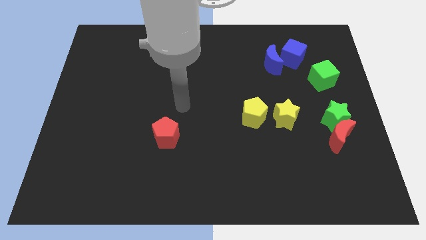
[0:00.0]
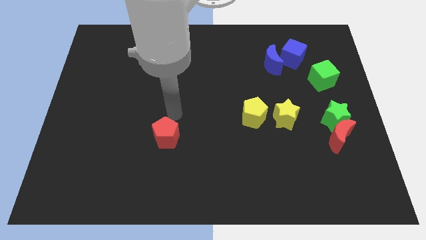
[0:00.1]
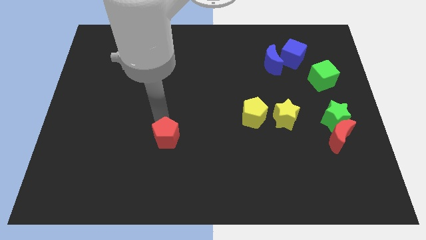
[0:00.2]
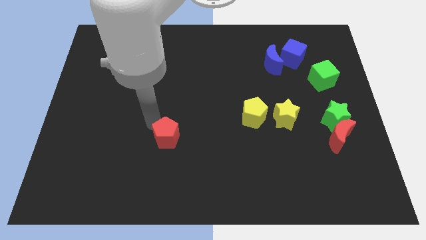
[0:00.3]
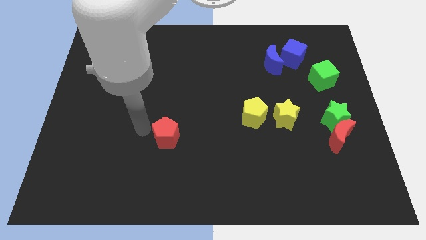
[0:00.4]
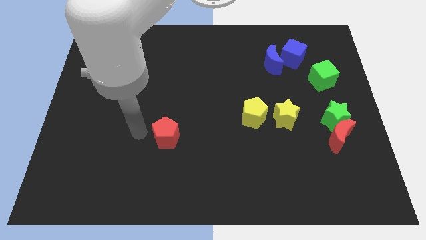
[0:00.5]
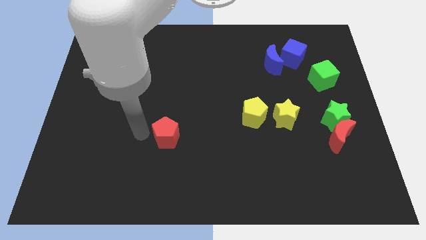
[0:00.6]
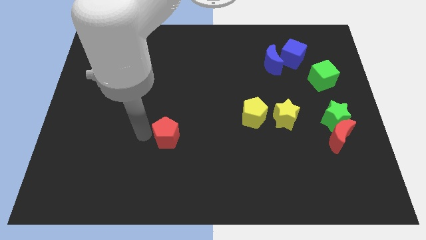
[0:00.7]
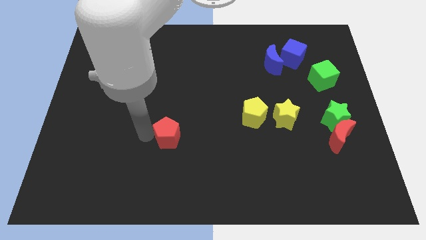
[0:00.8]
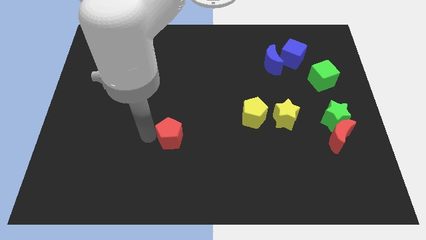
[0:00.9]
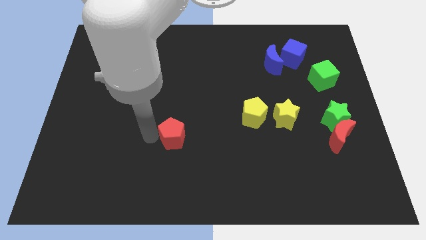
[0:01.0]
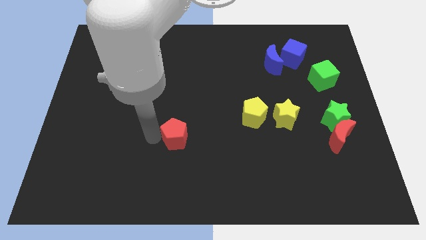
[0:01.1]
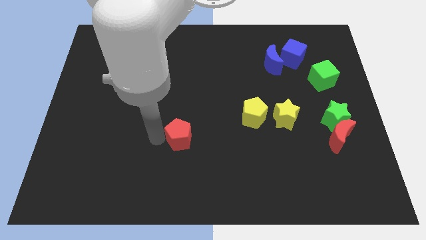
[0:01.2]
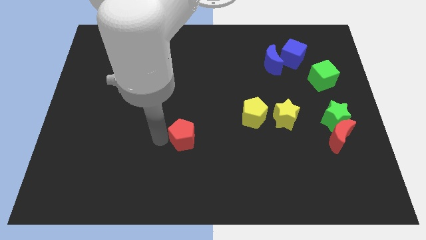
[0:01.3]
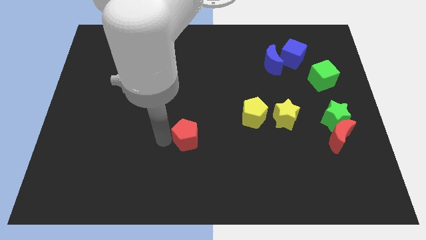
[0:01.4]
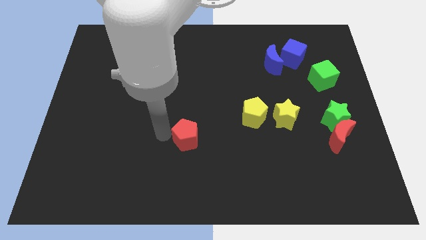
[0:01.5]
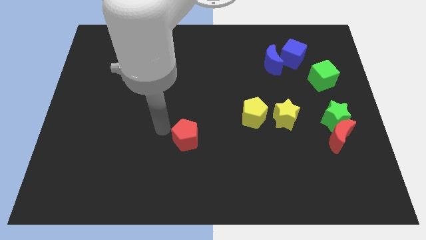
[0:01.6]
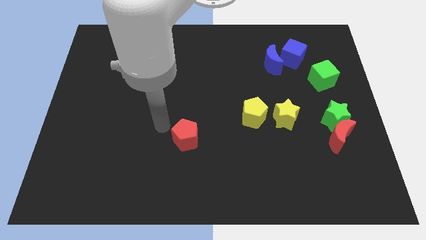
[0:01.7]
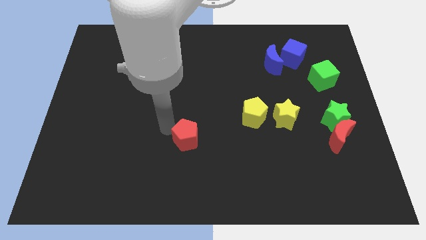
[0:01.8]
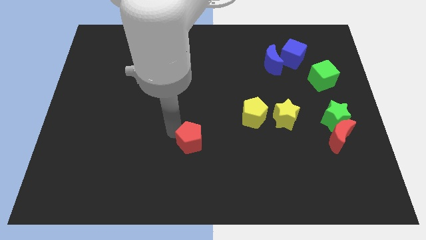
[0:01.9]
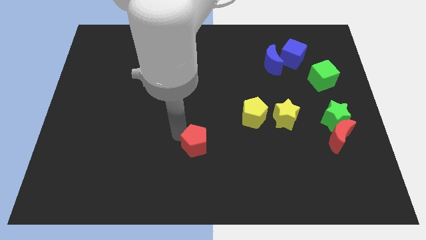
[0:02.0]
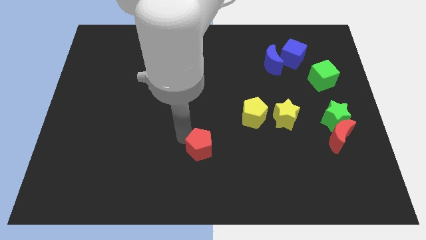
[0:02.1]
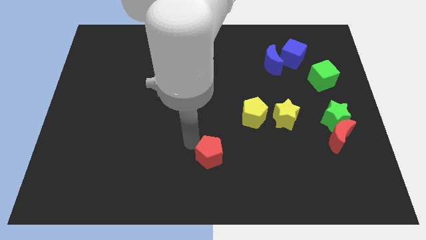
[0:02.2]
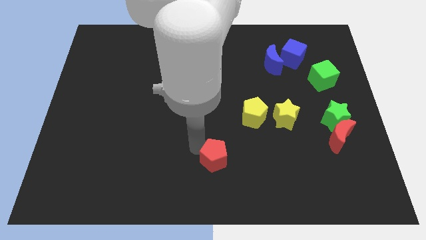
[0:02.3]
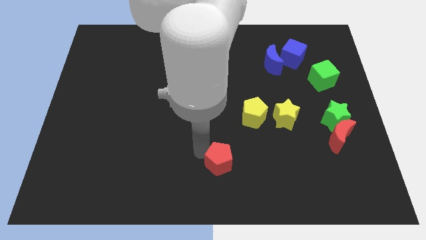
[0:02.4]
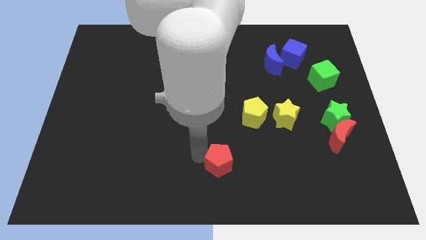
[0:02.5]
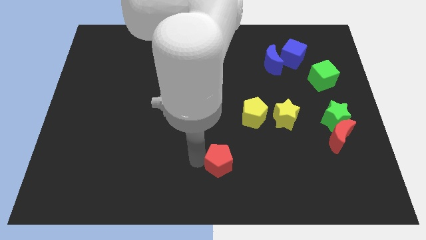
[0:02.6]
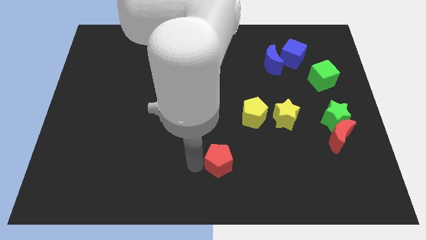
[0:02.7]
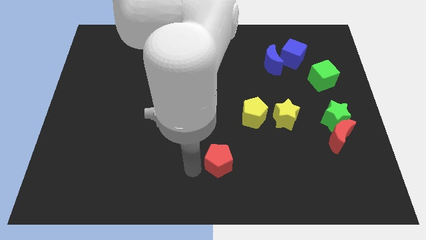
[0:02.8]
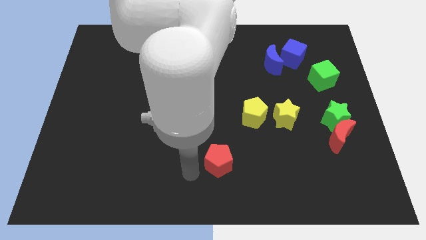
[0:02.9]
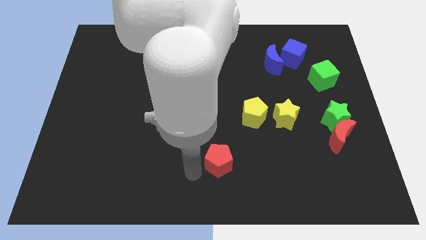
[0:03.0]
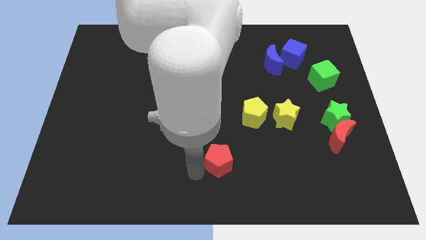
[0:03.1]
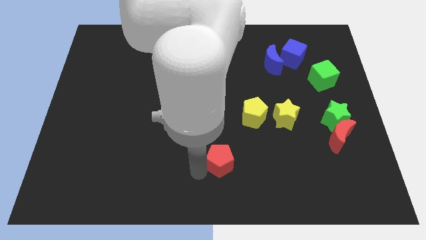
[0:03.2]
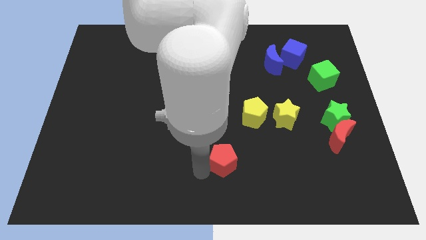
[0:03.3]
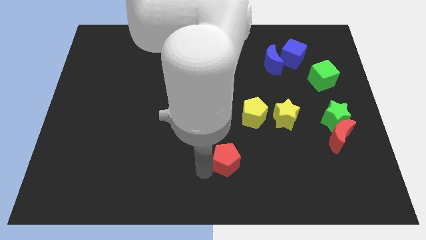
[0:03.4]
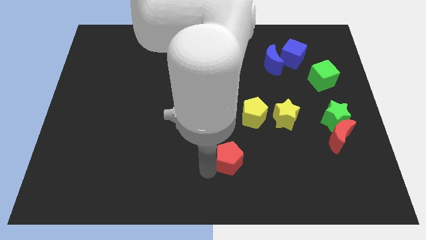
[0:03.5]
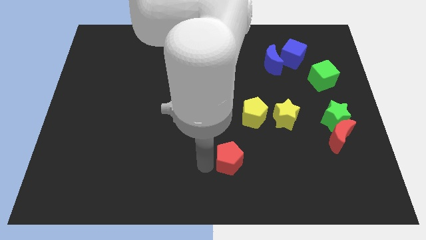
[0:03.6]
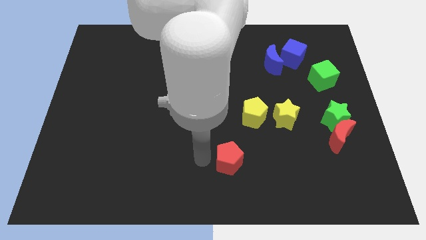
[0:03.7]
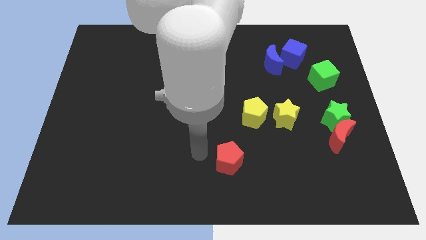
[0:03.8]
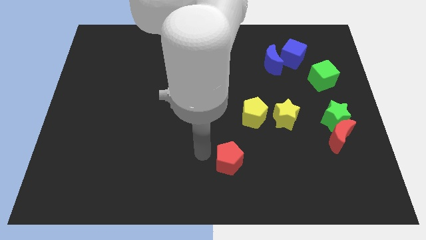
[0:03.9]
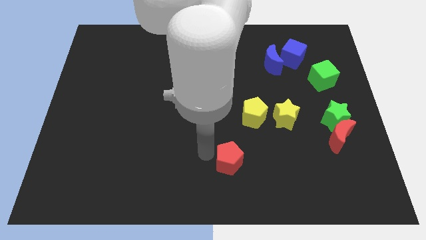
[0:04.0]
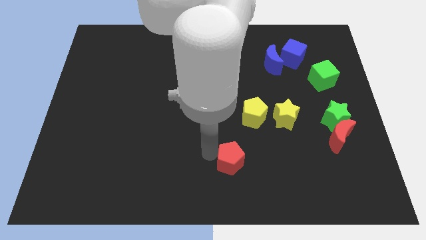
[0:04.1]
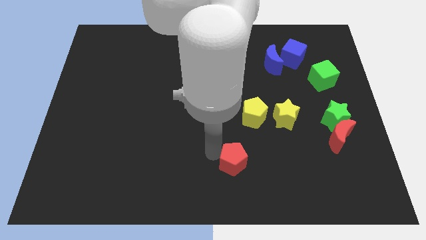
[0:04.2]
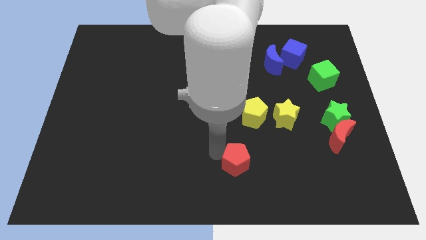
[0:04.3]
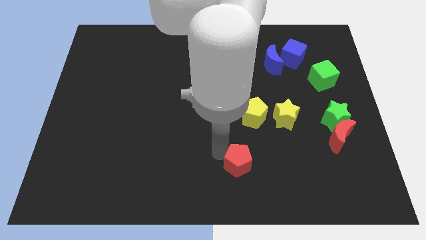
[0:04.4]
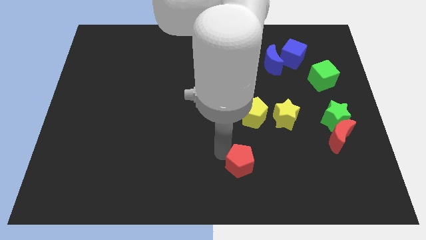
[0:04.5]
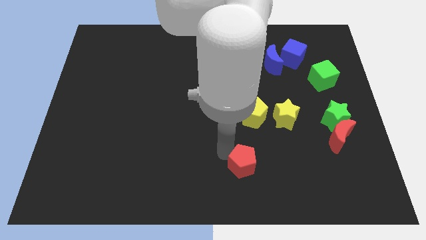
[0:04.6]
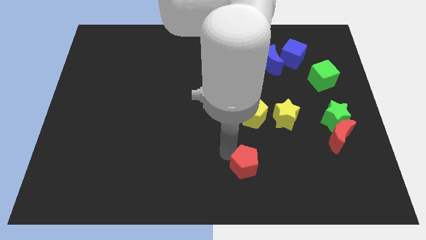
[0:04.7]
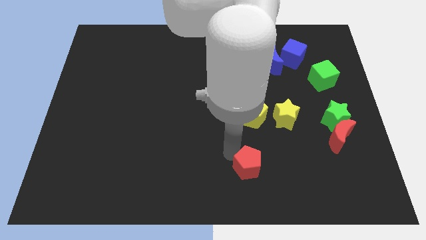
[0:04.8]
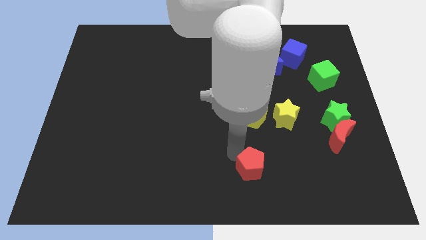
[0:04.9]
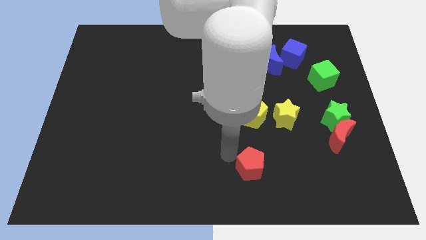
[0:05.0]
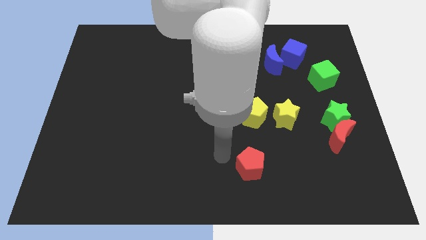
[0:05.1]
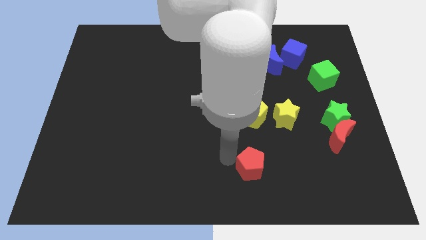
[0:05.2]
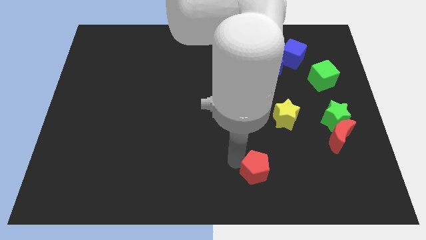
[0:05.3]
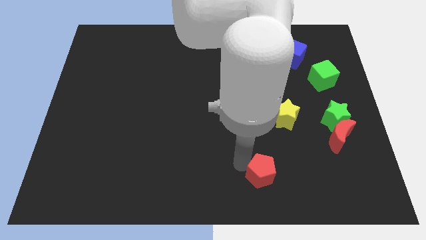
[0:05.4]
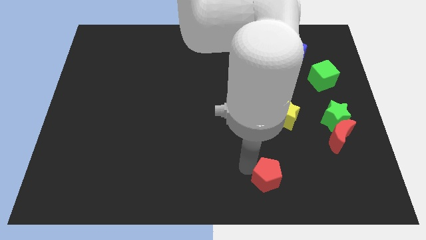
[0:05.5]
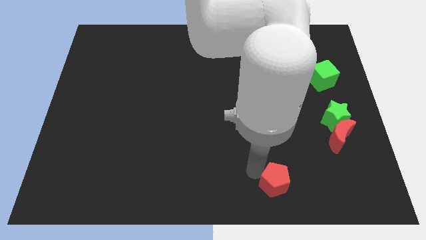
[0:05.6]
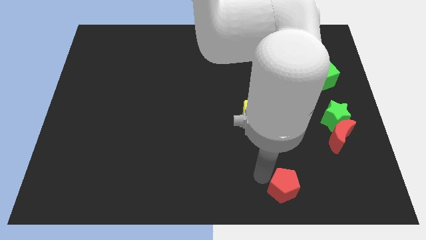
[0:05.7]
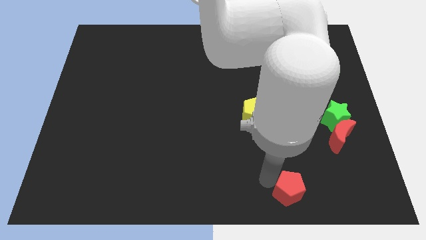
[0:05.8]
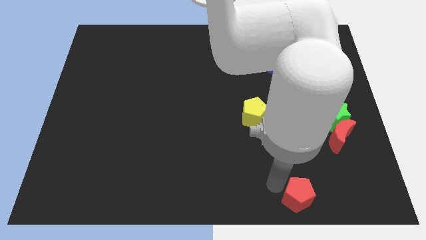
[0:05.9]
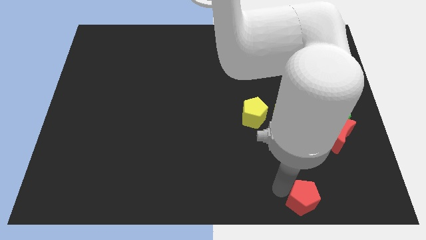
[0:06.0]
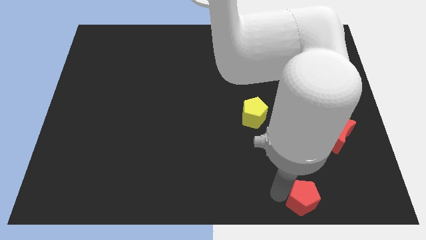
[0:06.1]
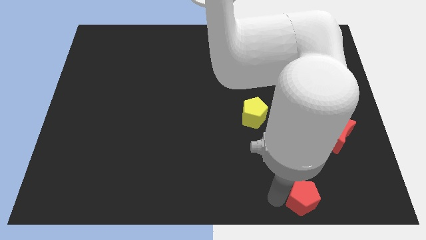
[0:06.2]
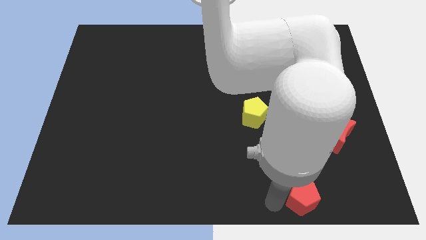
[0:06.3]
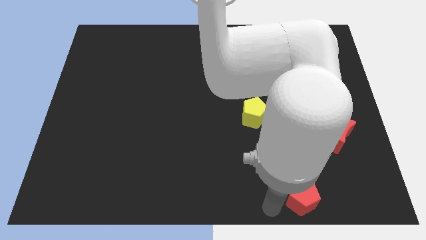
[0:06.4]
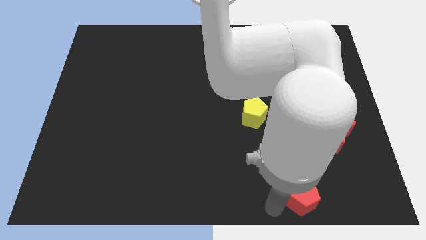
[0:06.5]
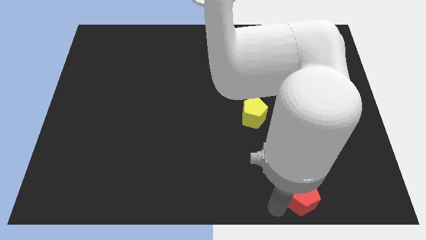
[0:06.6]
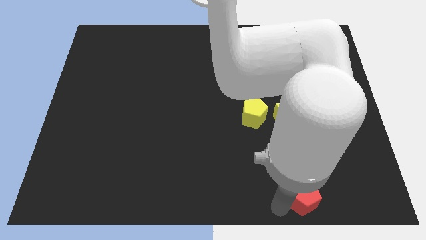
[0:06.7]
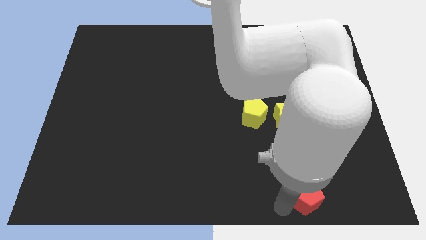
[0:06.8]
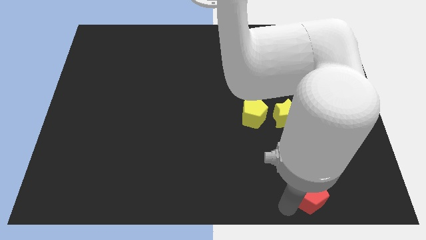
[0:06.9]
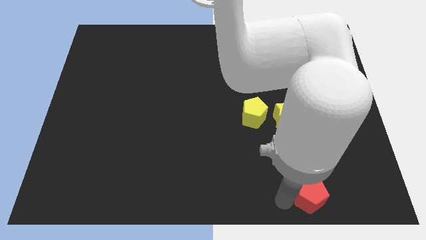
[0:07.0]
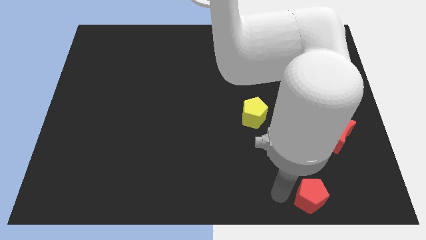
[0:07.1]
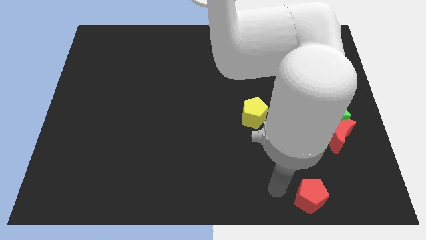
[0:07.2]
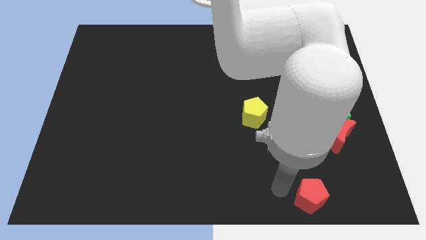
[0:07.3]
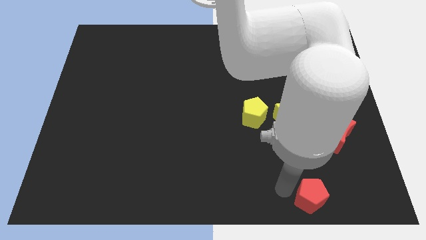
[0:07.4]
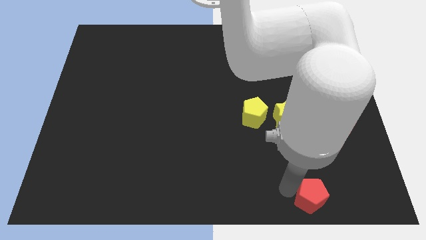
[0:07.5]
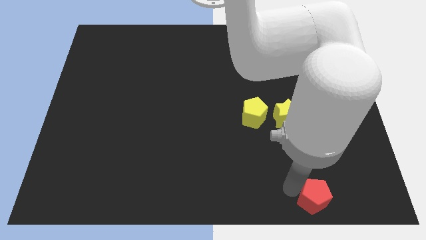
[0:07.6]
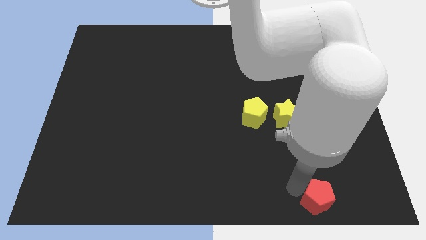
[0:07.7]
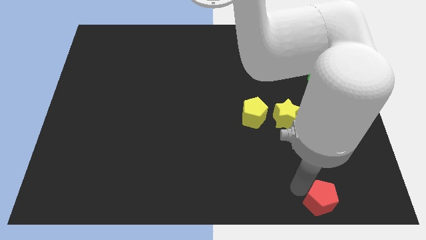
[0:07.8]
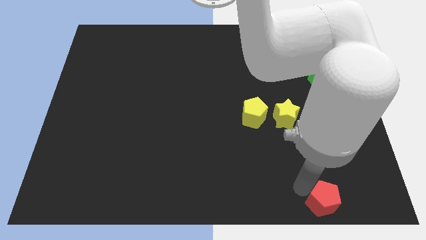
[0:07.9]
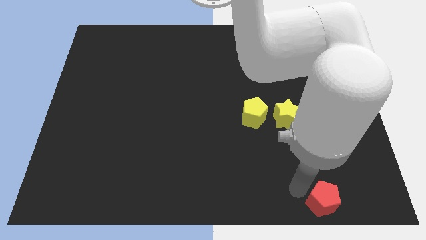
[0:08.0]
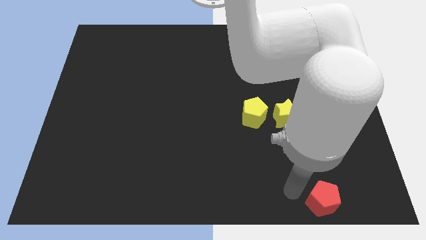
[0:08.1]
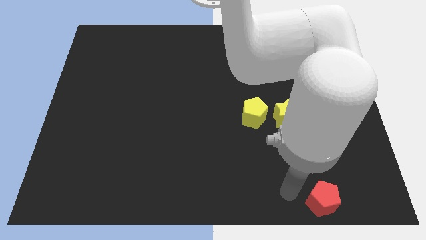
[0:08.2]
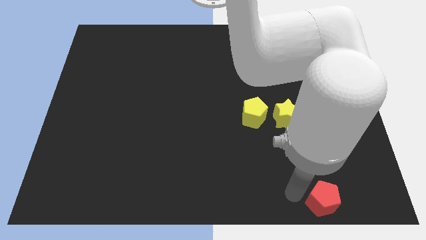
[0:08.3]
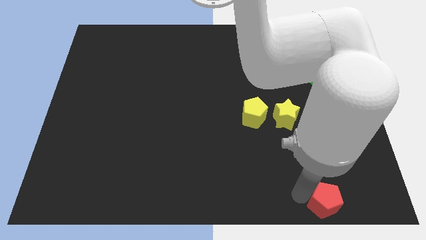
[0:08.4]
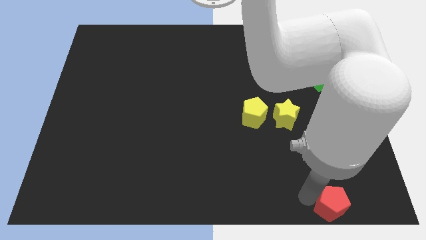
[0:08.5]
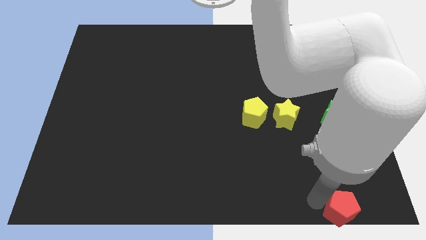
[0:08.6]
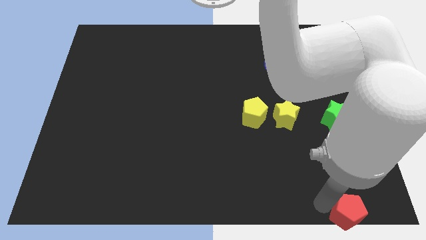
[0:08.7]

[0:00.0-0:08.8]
put the red pentagon to the lower right corner
